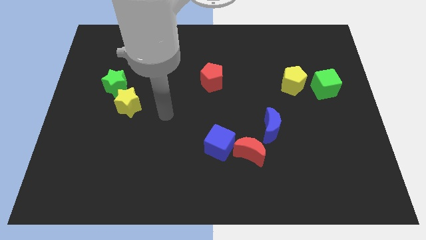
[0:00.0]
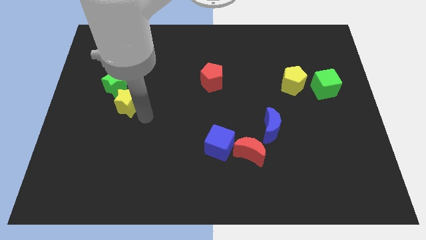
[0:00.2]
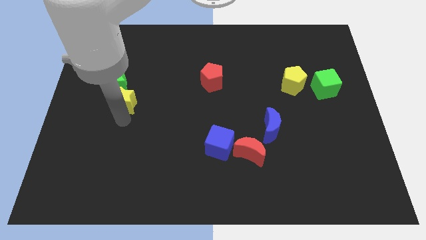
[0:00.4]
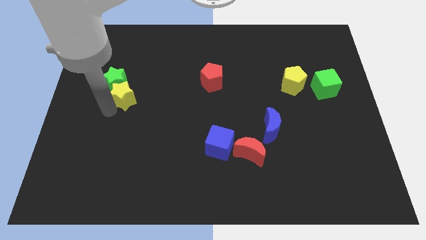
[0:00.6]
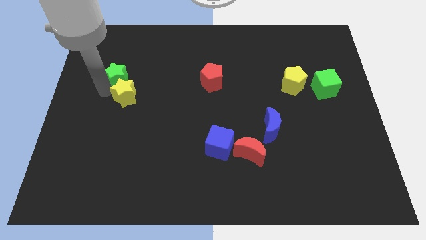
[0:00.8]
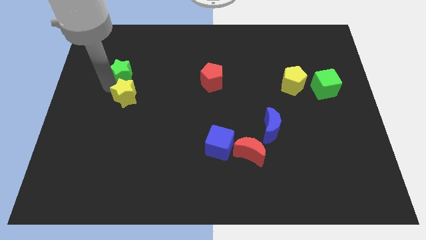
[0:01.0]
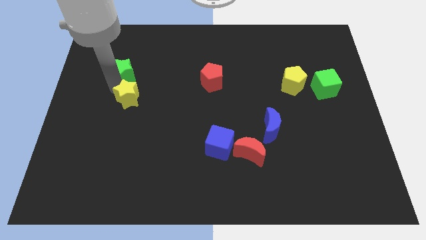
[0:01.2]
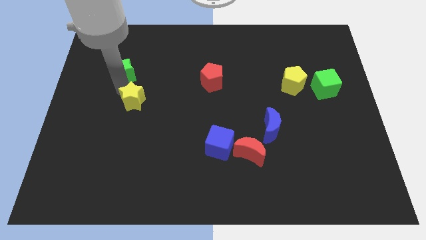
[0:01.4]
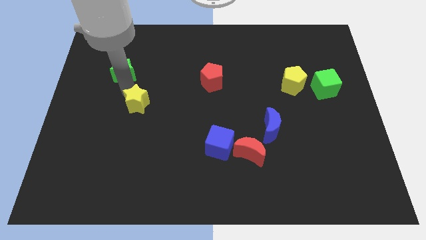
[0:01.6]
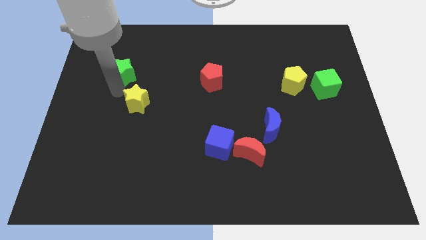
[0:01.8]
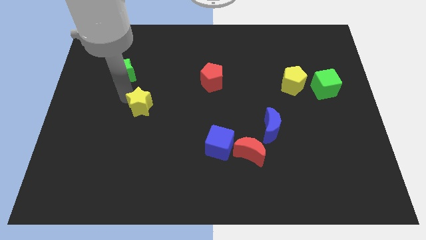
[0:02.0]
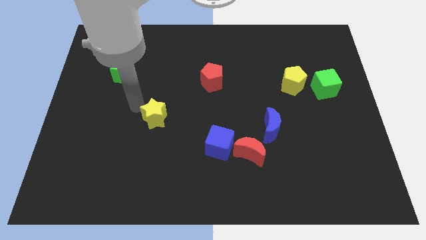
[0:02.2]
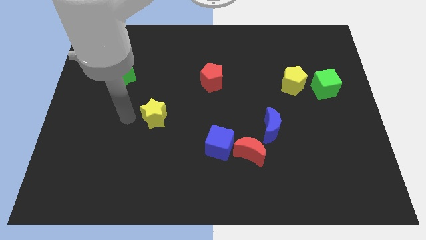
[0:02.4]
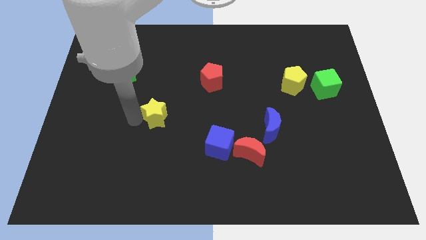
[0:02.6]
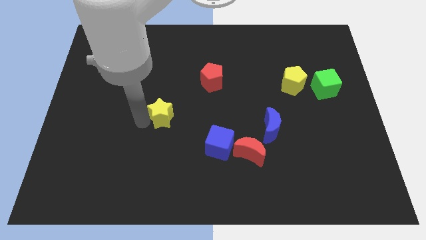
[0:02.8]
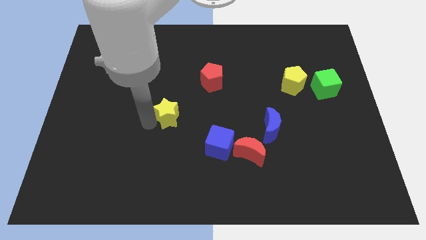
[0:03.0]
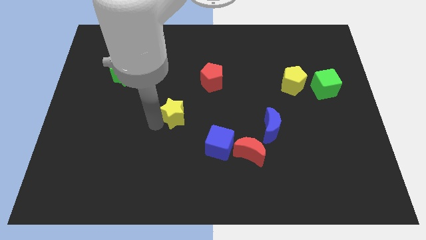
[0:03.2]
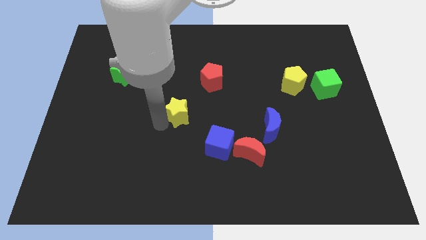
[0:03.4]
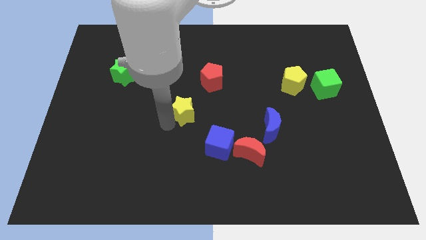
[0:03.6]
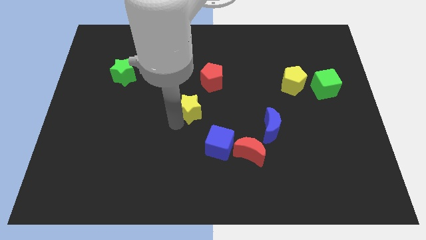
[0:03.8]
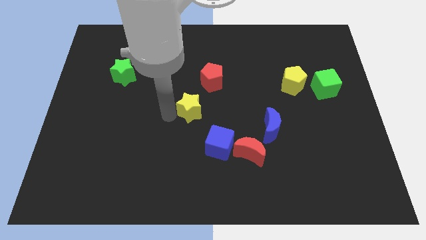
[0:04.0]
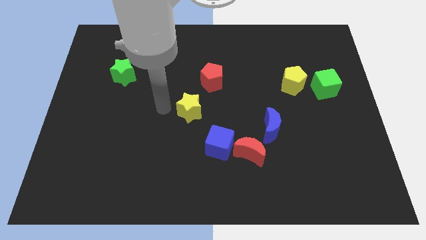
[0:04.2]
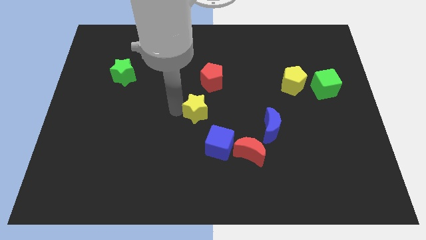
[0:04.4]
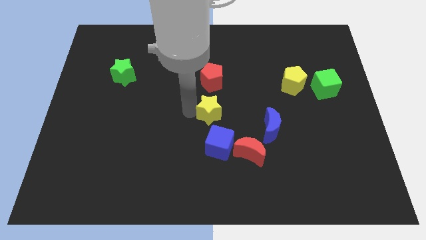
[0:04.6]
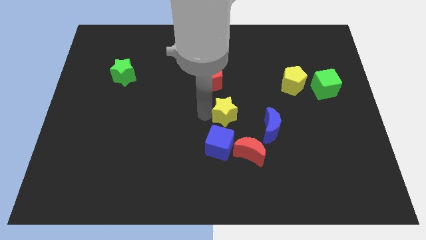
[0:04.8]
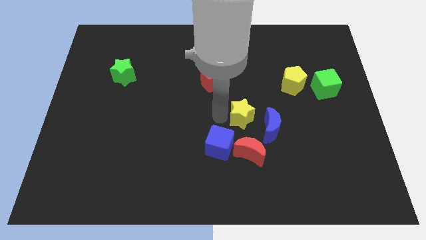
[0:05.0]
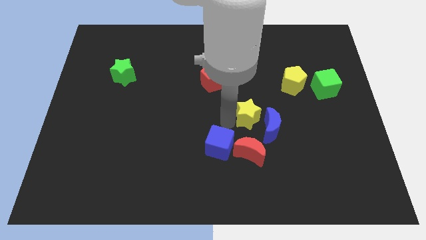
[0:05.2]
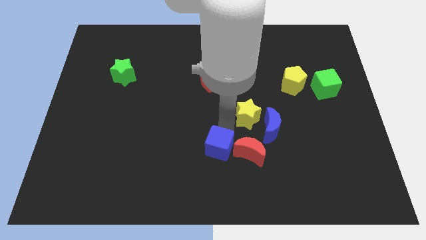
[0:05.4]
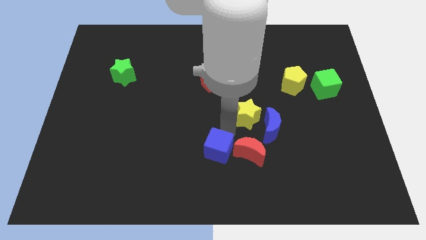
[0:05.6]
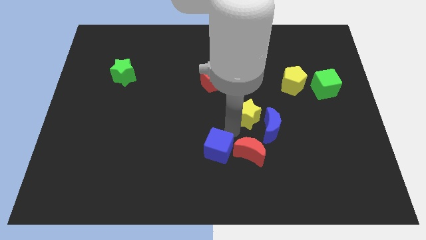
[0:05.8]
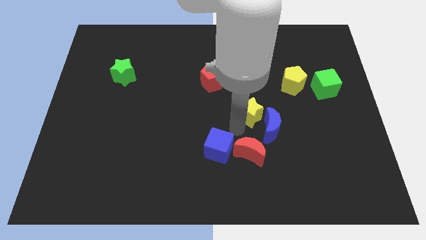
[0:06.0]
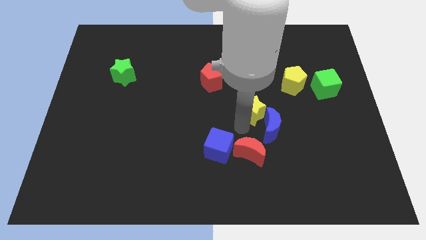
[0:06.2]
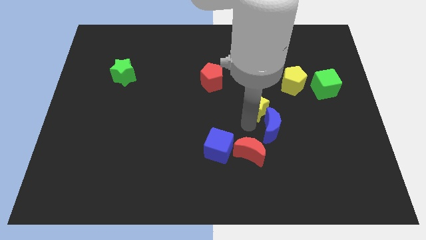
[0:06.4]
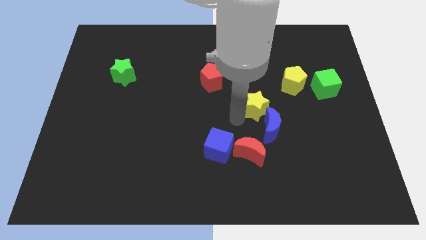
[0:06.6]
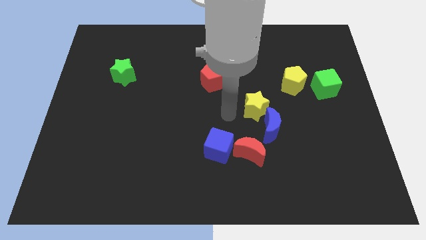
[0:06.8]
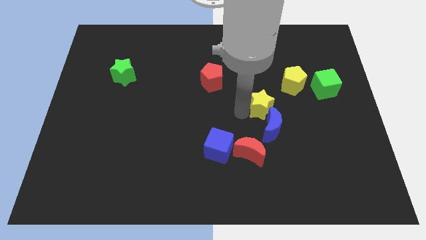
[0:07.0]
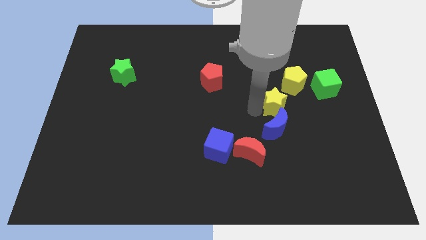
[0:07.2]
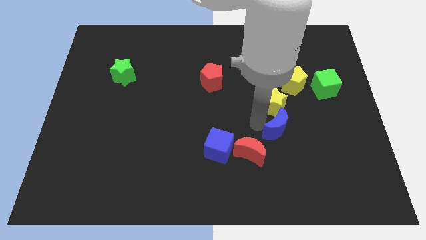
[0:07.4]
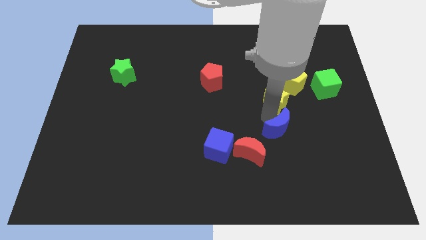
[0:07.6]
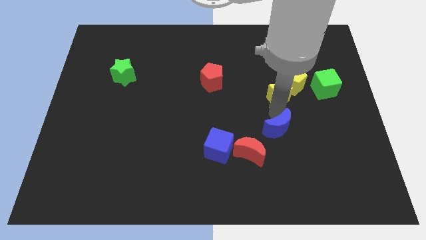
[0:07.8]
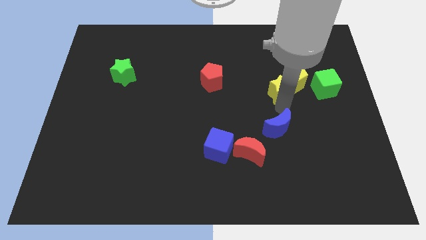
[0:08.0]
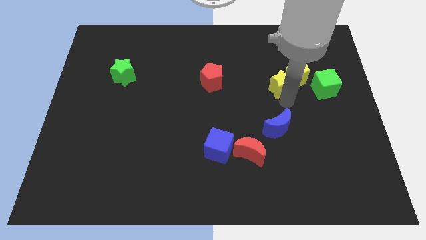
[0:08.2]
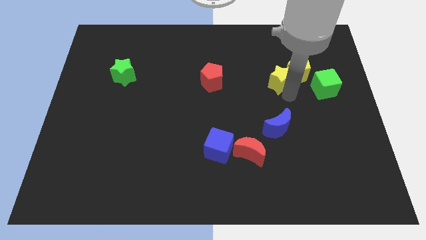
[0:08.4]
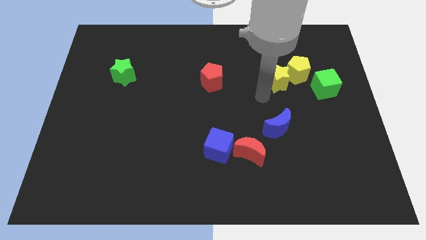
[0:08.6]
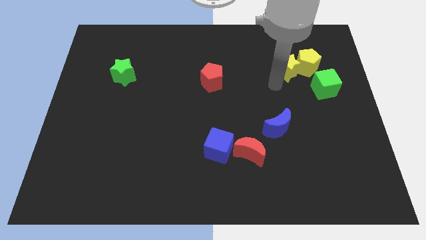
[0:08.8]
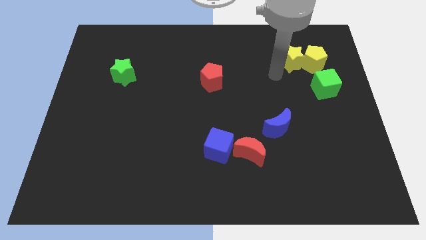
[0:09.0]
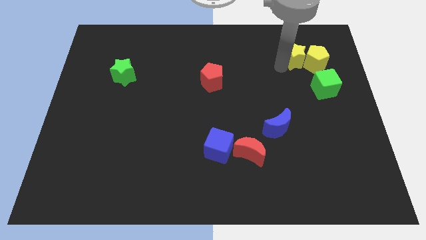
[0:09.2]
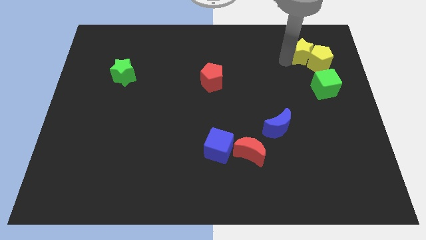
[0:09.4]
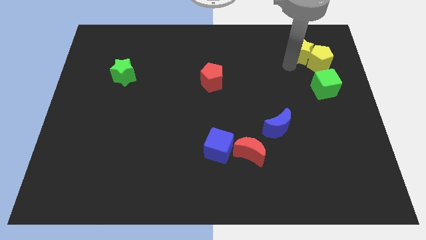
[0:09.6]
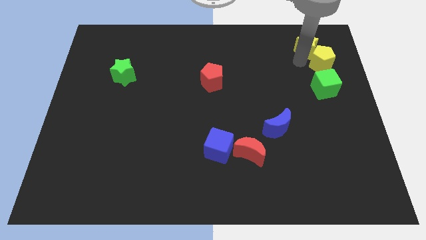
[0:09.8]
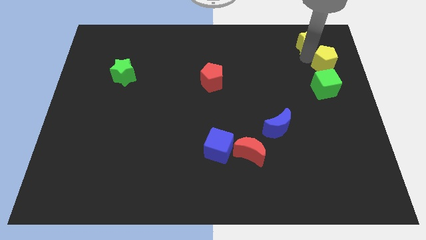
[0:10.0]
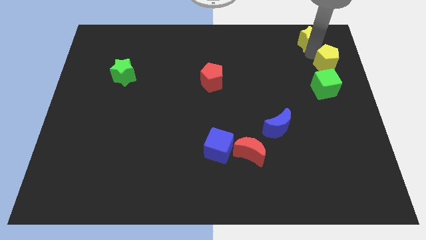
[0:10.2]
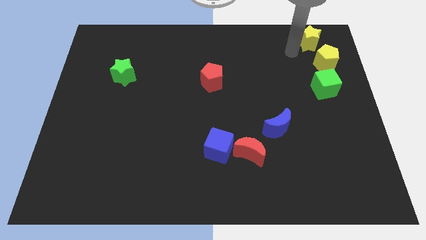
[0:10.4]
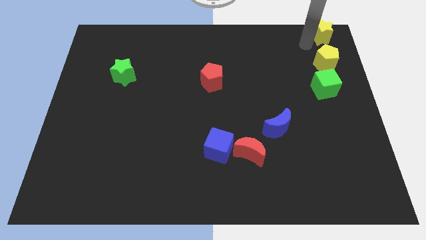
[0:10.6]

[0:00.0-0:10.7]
slide the yellow star to the top right of the board

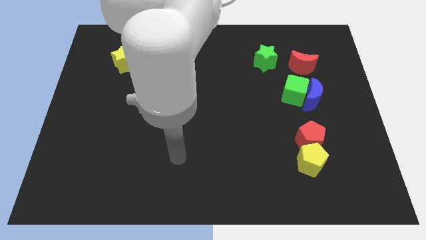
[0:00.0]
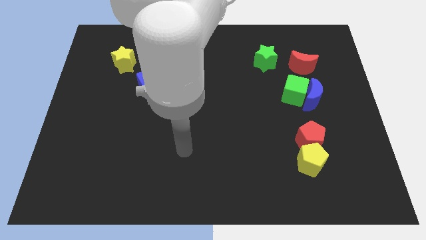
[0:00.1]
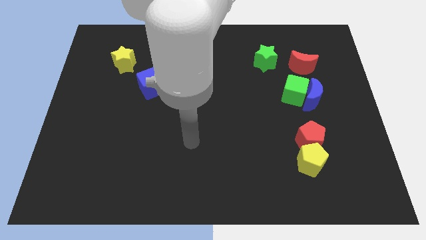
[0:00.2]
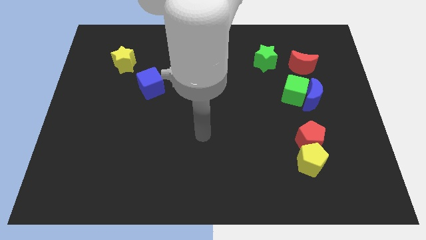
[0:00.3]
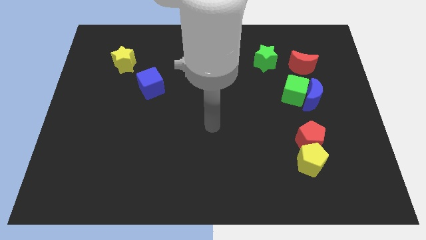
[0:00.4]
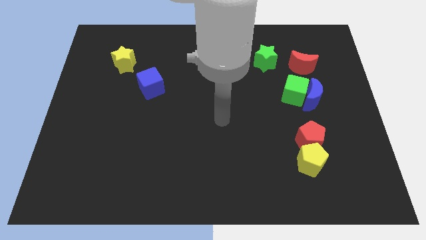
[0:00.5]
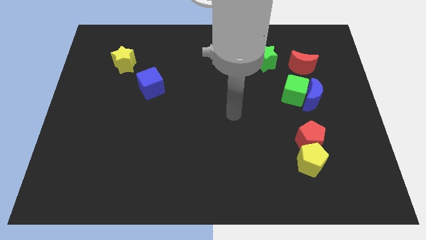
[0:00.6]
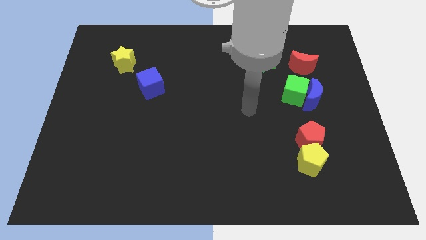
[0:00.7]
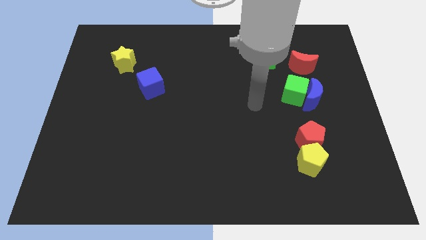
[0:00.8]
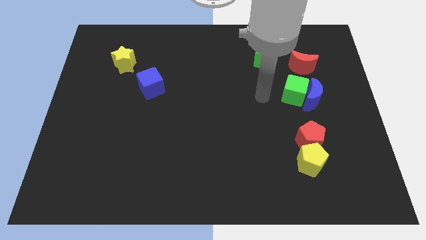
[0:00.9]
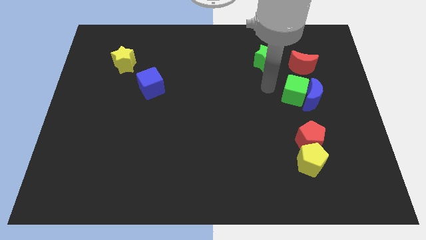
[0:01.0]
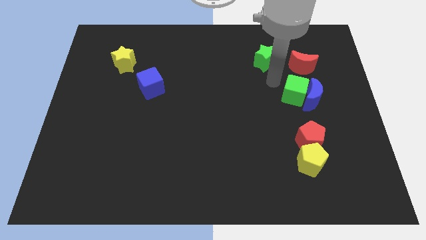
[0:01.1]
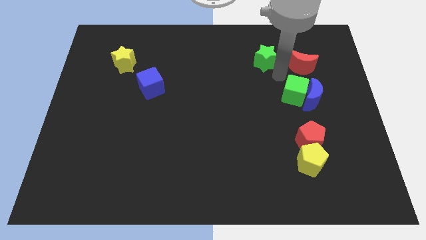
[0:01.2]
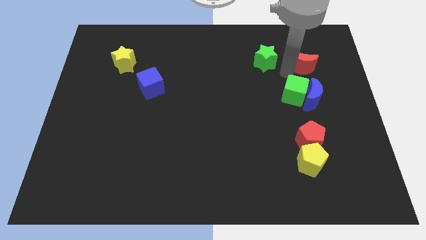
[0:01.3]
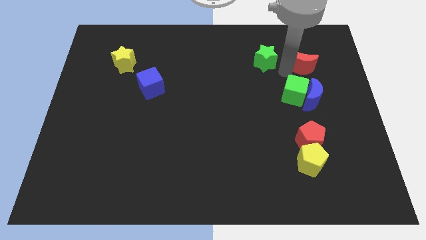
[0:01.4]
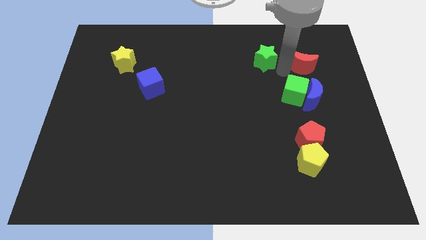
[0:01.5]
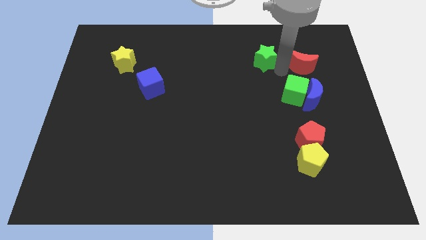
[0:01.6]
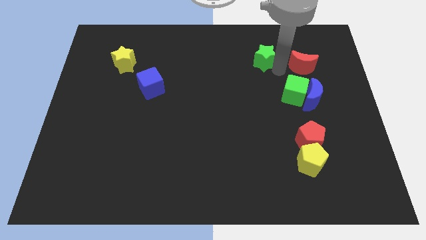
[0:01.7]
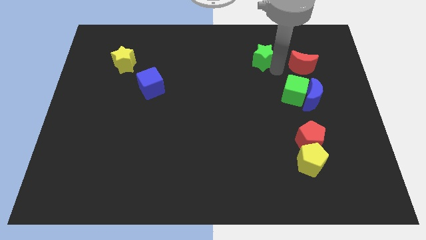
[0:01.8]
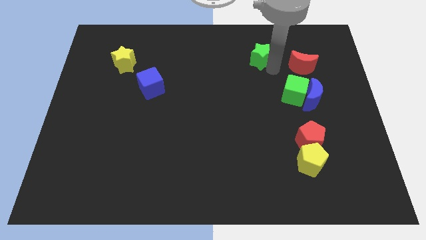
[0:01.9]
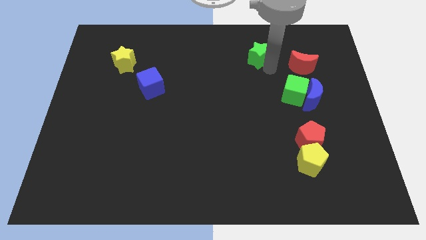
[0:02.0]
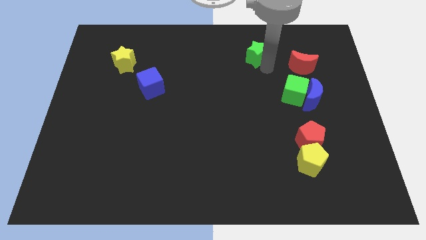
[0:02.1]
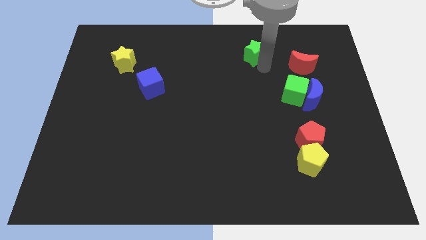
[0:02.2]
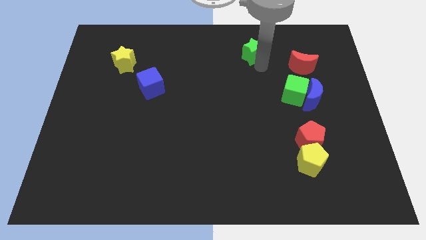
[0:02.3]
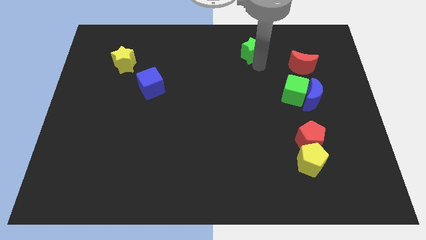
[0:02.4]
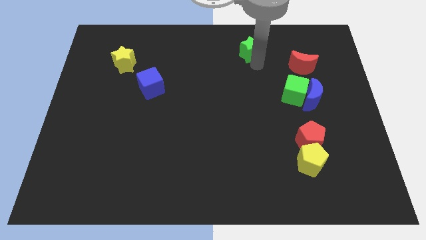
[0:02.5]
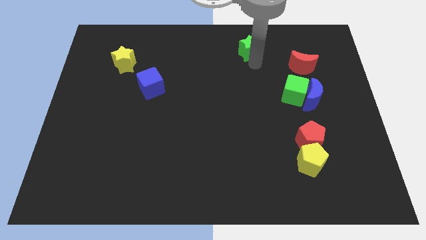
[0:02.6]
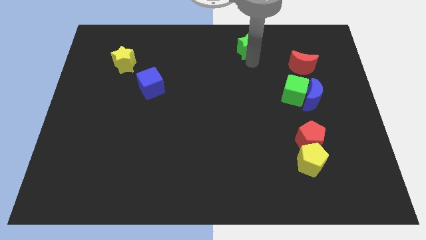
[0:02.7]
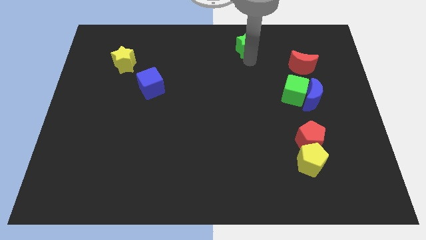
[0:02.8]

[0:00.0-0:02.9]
push the green star to the top side

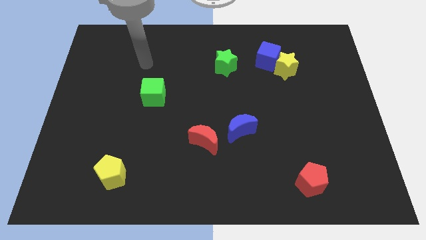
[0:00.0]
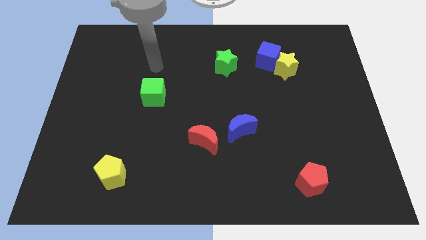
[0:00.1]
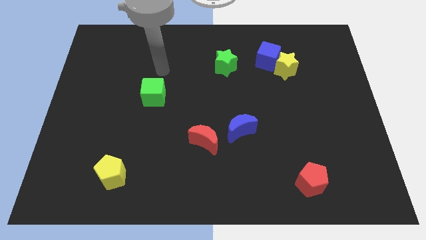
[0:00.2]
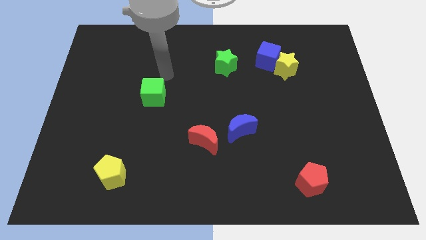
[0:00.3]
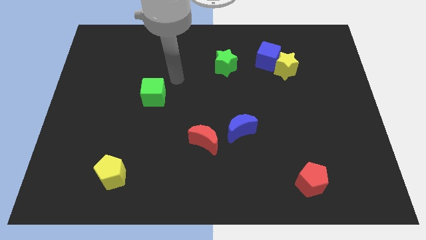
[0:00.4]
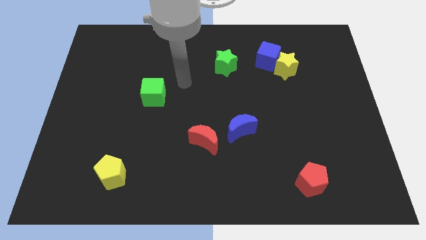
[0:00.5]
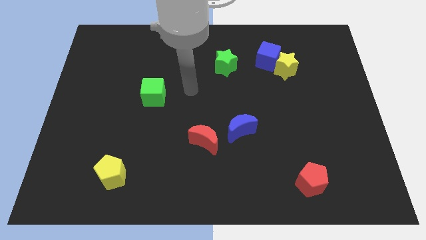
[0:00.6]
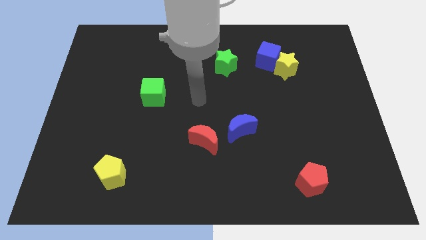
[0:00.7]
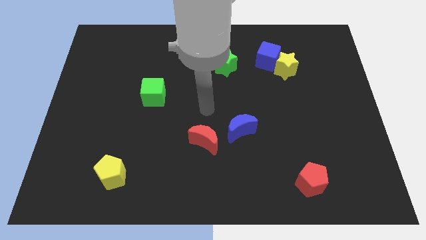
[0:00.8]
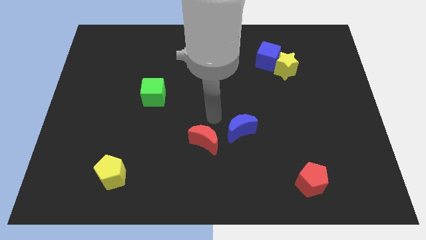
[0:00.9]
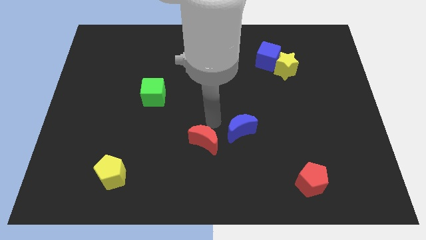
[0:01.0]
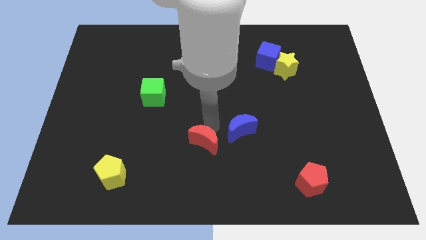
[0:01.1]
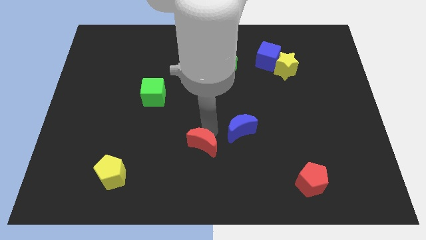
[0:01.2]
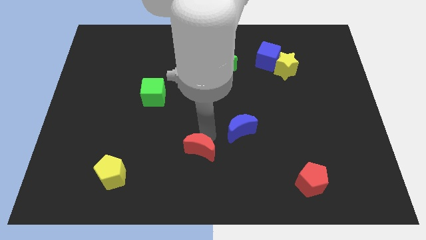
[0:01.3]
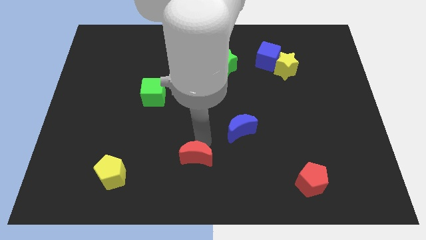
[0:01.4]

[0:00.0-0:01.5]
move the red moon to the bottom
